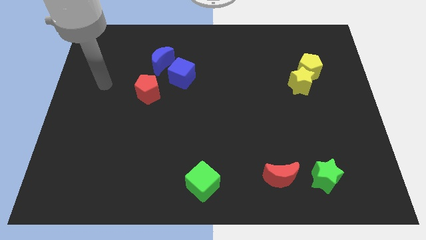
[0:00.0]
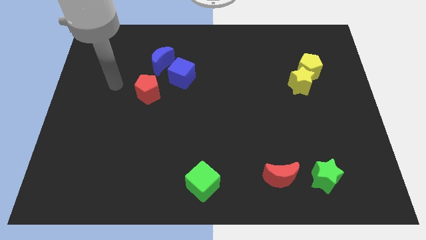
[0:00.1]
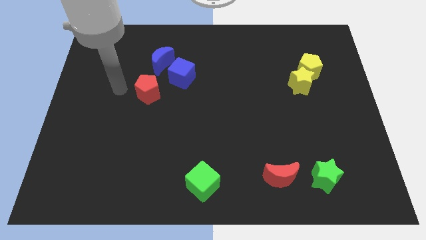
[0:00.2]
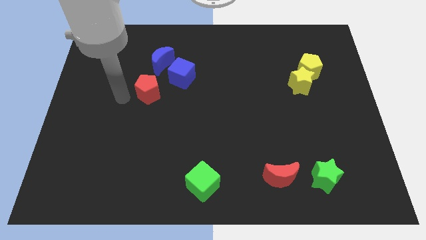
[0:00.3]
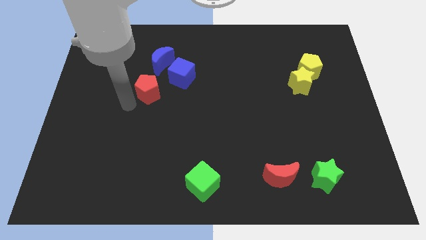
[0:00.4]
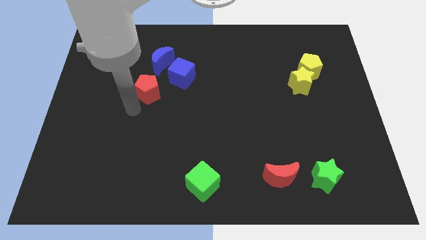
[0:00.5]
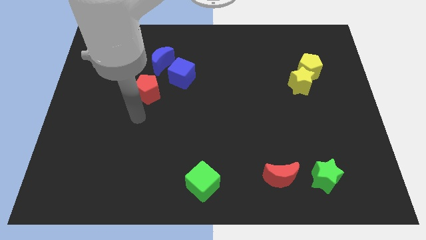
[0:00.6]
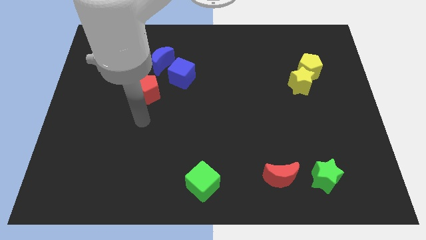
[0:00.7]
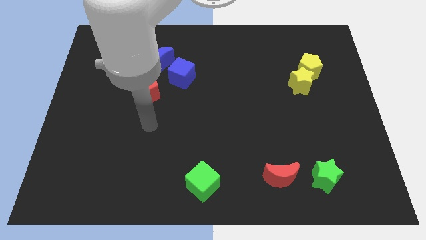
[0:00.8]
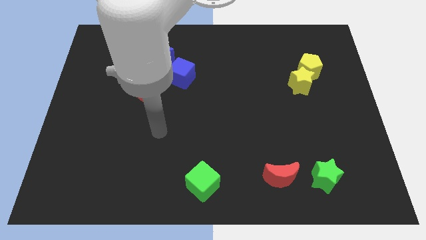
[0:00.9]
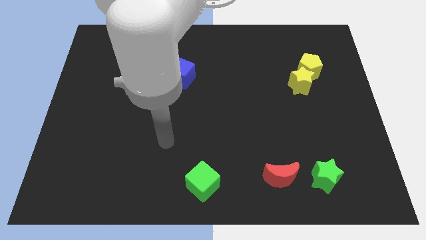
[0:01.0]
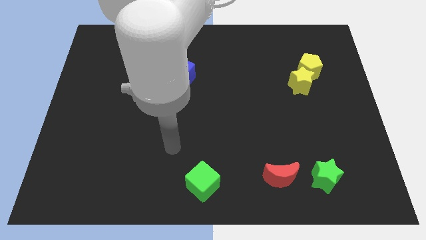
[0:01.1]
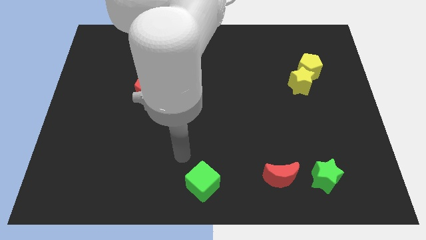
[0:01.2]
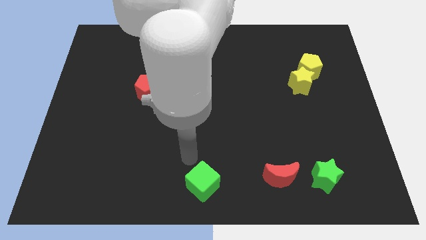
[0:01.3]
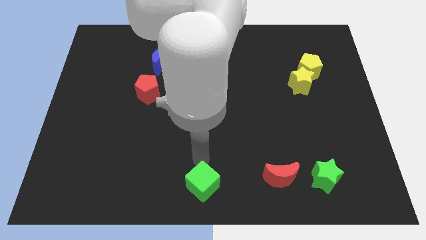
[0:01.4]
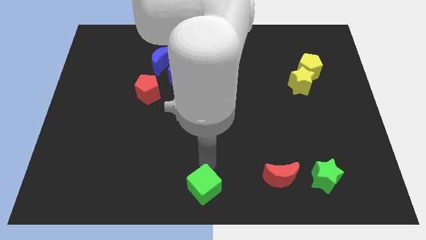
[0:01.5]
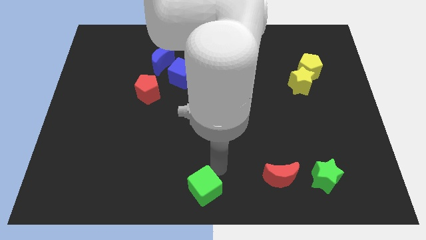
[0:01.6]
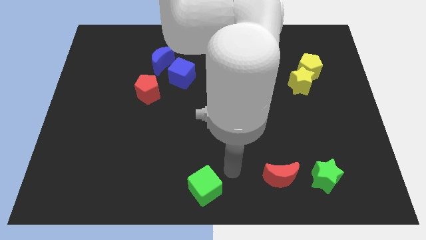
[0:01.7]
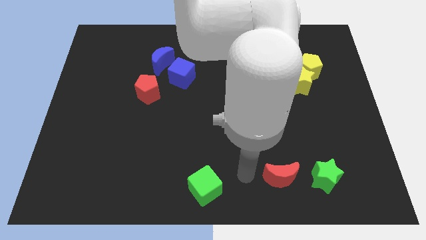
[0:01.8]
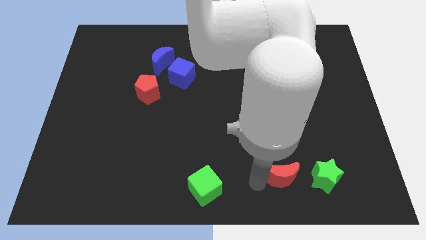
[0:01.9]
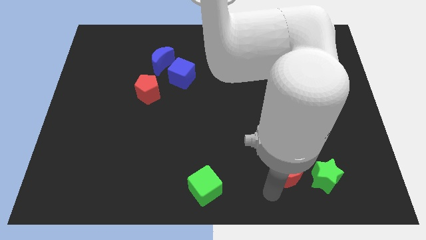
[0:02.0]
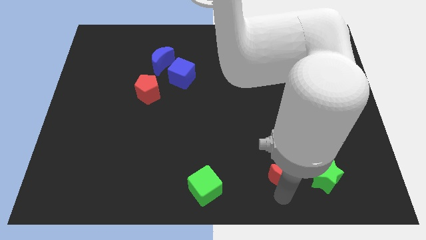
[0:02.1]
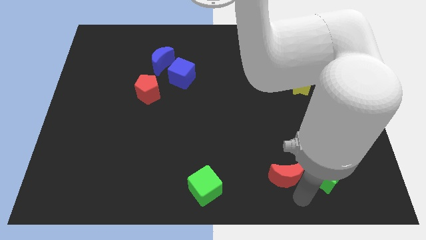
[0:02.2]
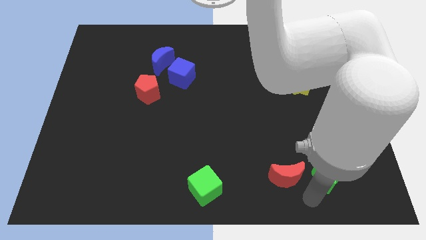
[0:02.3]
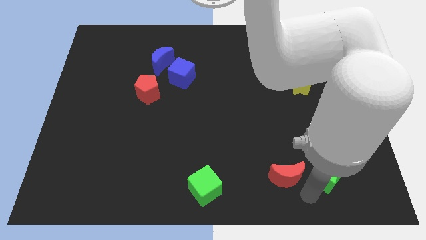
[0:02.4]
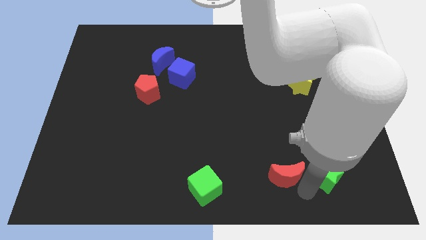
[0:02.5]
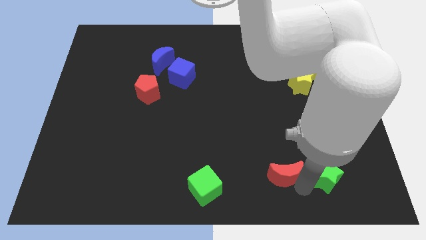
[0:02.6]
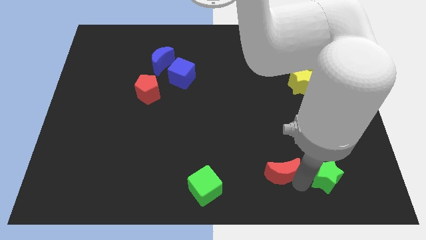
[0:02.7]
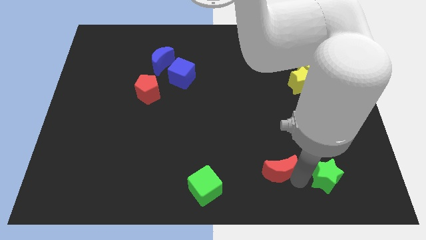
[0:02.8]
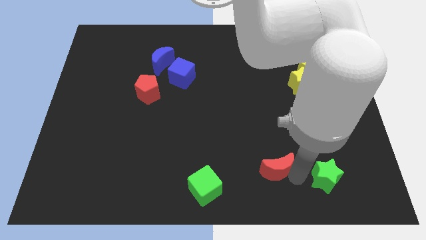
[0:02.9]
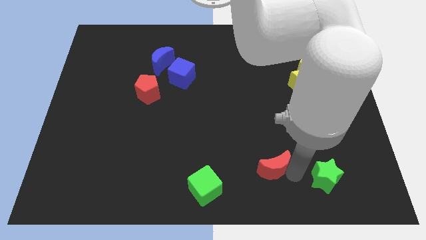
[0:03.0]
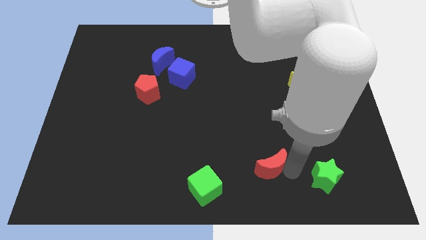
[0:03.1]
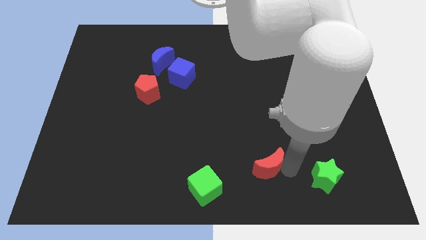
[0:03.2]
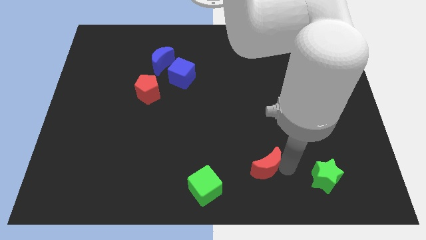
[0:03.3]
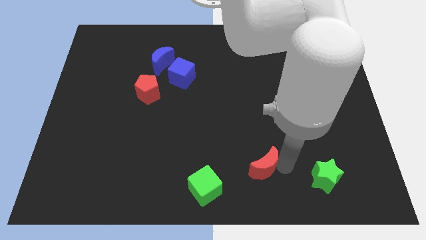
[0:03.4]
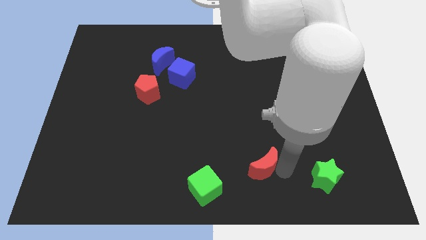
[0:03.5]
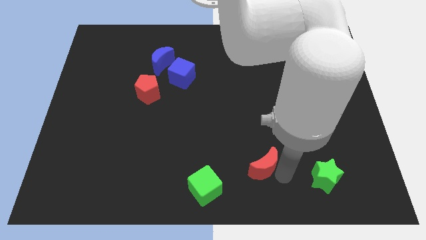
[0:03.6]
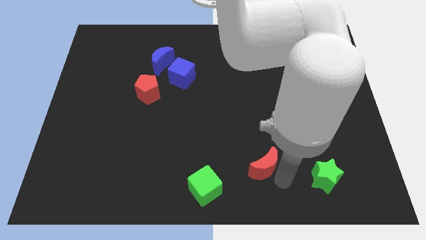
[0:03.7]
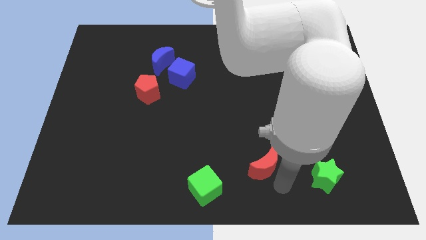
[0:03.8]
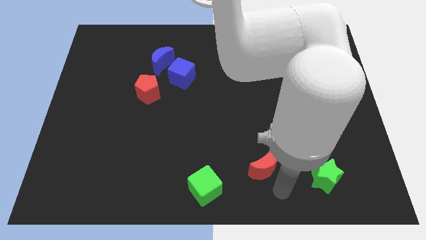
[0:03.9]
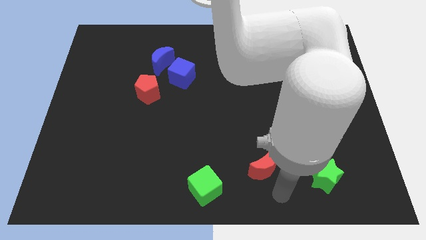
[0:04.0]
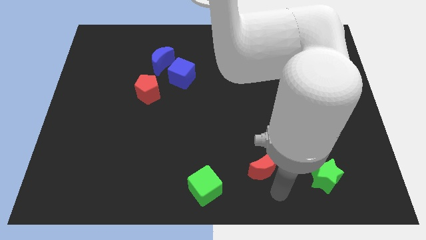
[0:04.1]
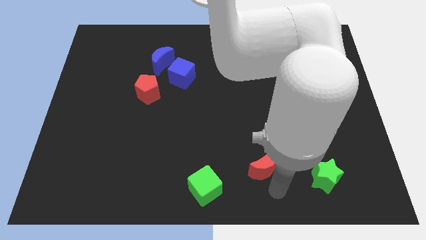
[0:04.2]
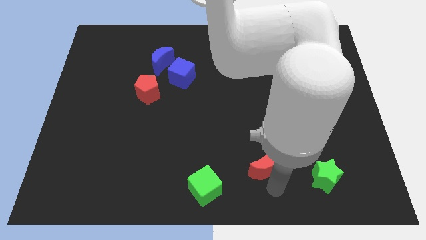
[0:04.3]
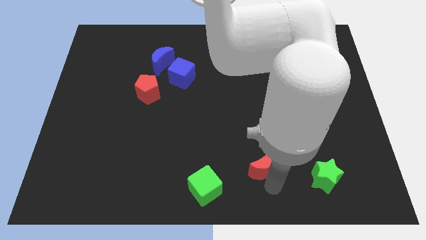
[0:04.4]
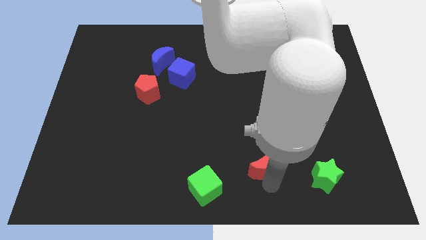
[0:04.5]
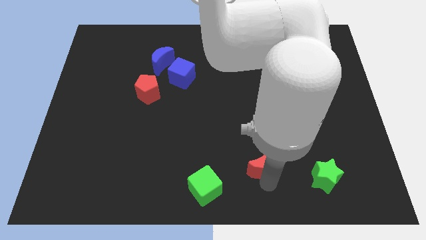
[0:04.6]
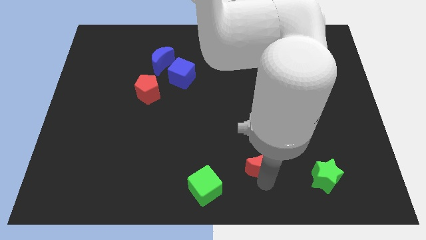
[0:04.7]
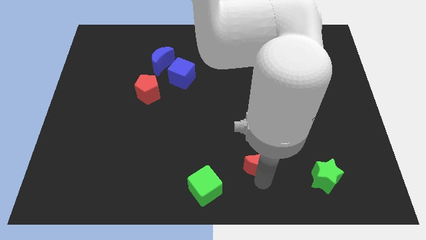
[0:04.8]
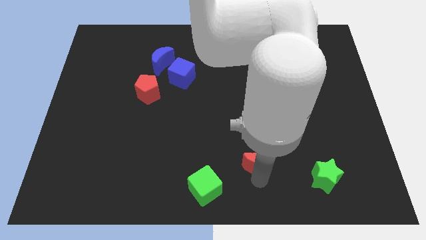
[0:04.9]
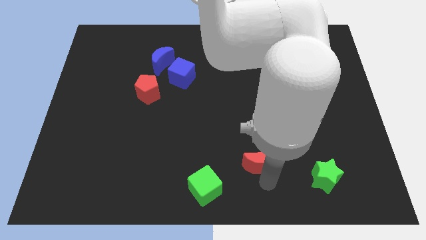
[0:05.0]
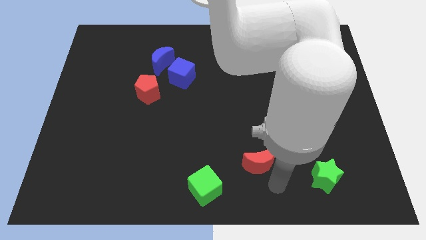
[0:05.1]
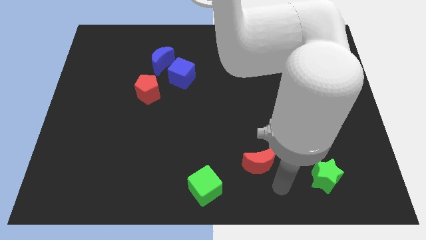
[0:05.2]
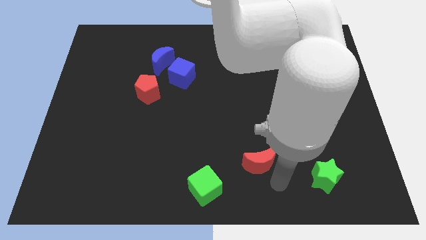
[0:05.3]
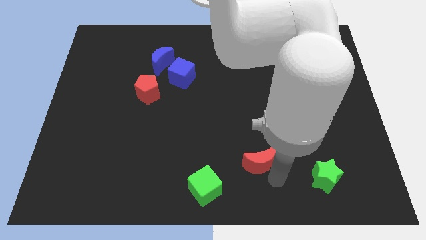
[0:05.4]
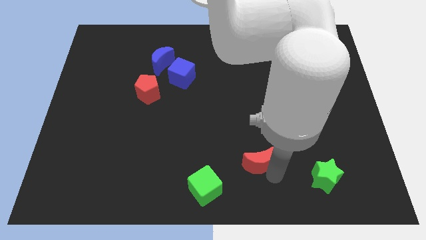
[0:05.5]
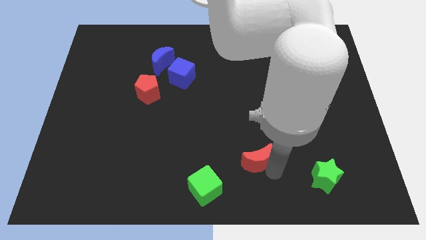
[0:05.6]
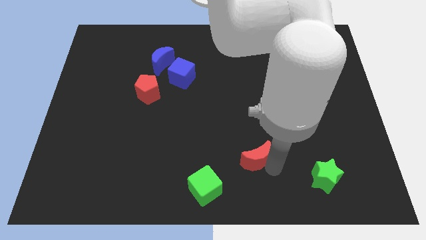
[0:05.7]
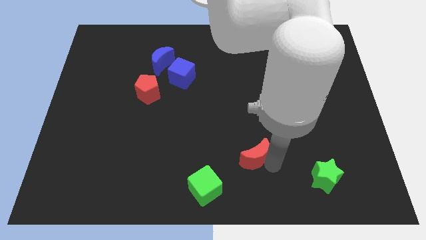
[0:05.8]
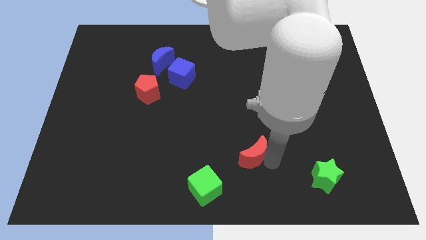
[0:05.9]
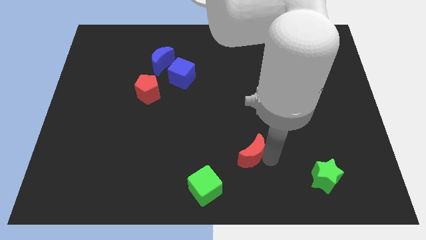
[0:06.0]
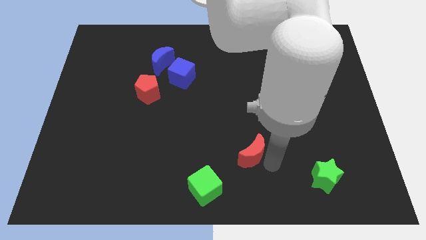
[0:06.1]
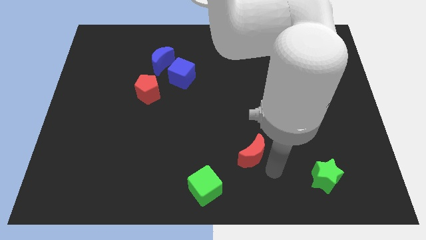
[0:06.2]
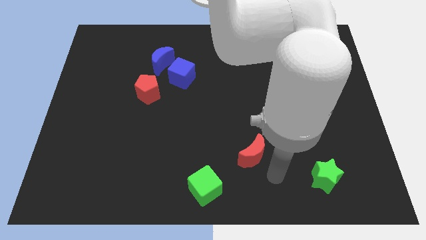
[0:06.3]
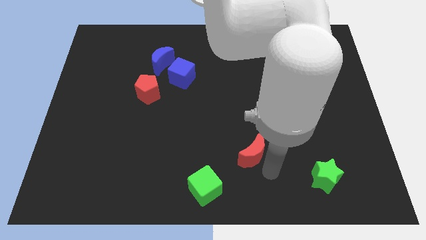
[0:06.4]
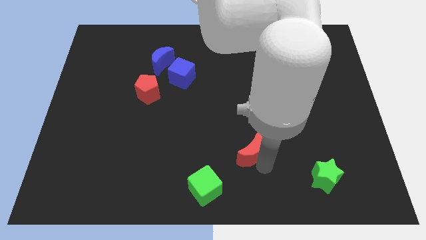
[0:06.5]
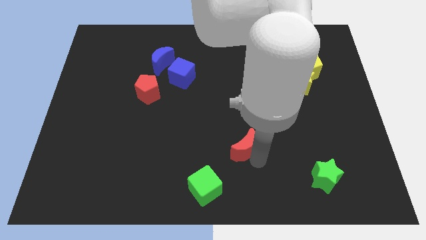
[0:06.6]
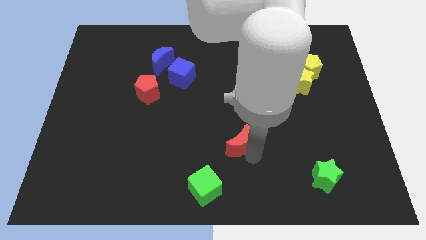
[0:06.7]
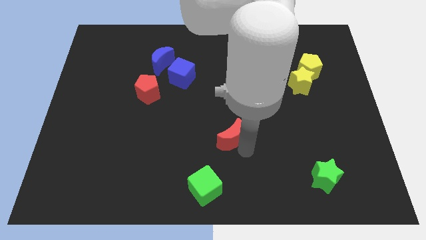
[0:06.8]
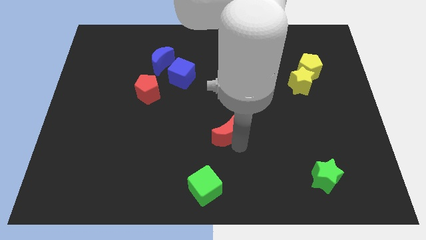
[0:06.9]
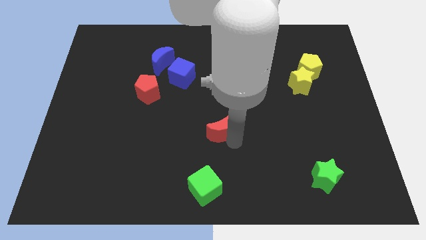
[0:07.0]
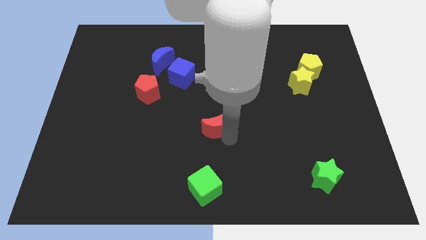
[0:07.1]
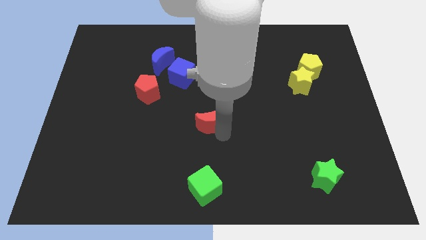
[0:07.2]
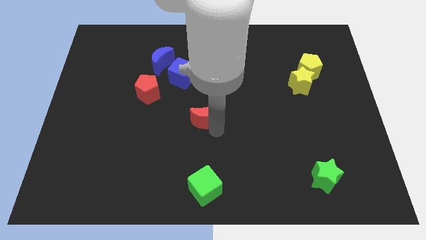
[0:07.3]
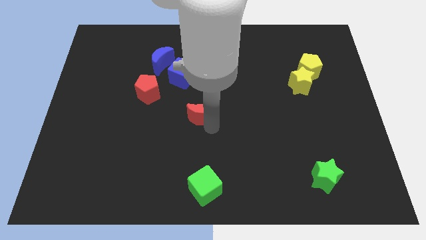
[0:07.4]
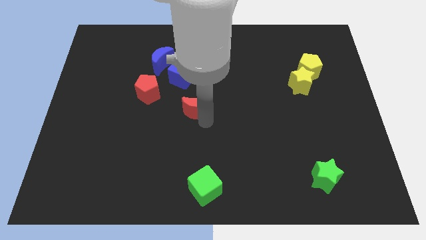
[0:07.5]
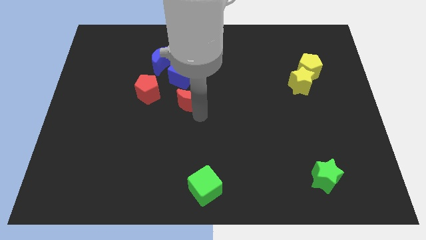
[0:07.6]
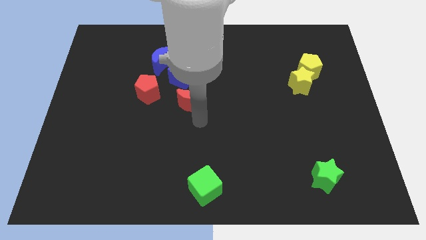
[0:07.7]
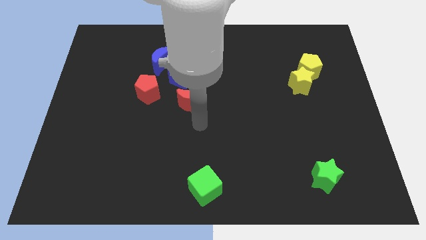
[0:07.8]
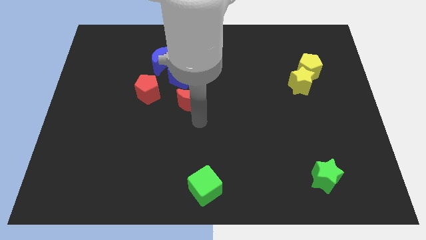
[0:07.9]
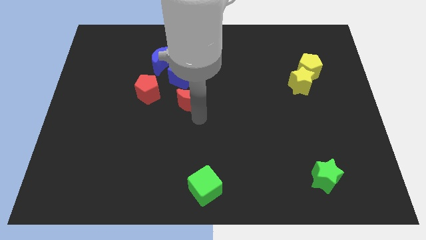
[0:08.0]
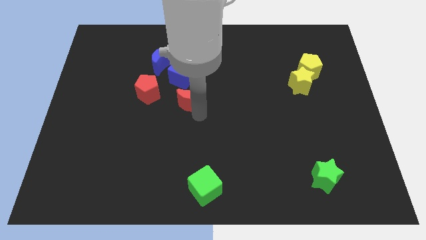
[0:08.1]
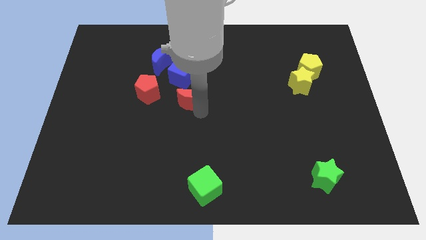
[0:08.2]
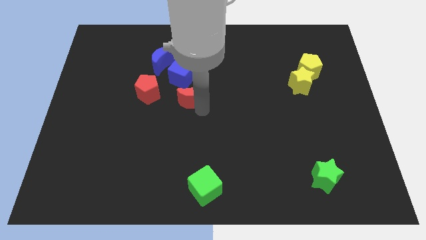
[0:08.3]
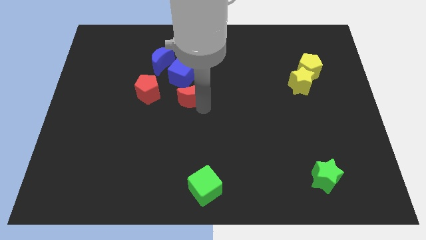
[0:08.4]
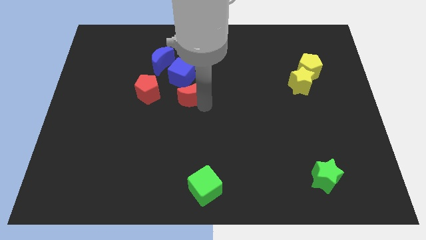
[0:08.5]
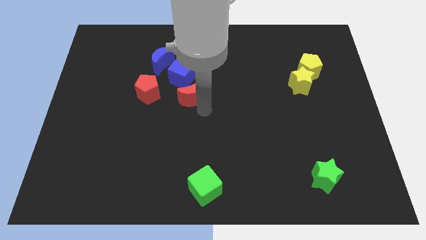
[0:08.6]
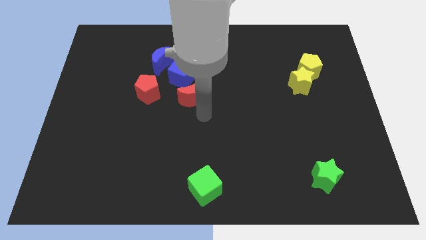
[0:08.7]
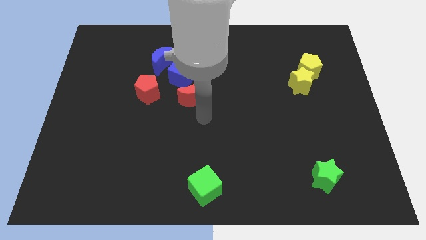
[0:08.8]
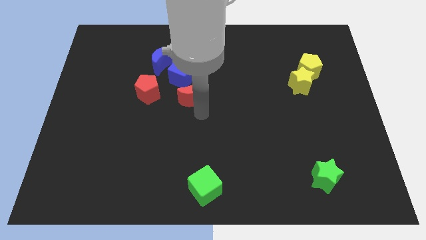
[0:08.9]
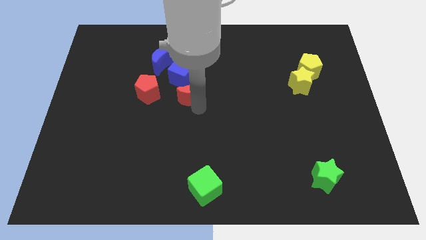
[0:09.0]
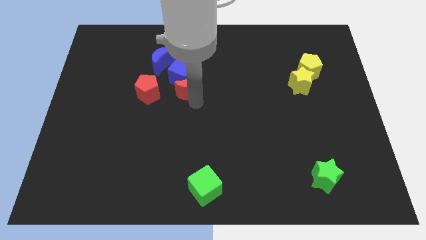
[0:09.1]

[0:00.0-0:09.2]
move the red moon close to the blue cube
